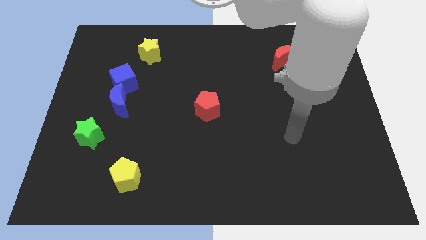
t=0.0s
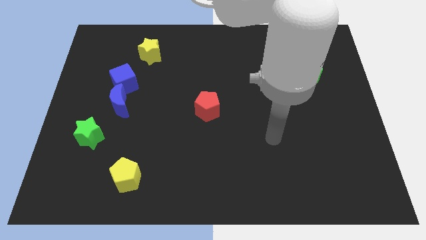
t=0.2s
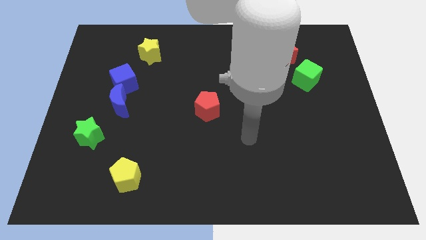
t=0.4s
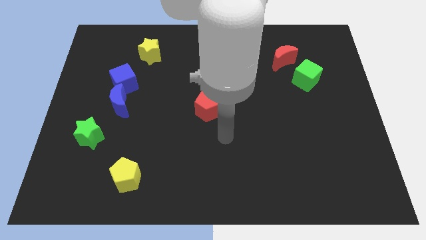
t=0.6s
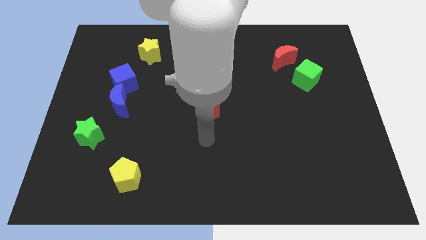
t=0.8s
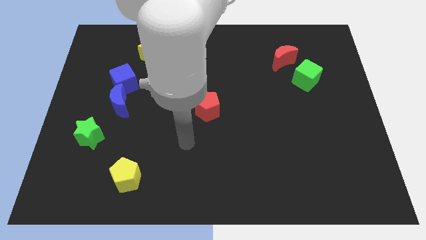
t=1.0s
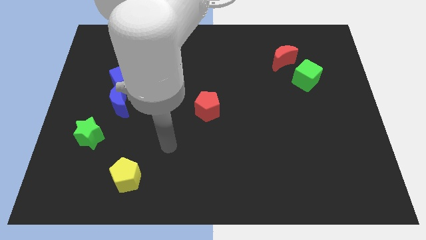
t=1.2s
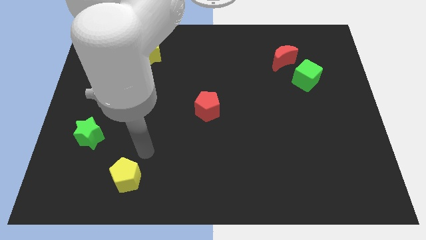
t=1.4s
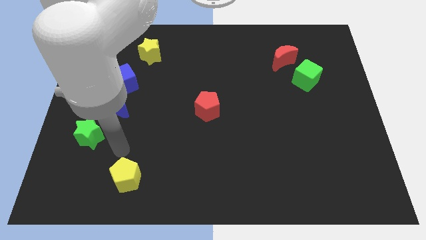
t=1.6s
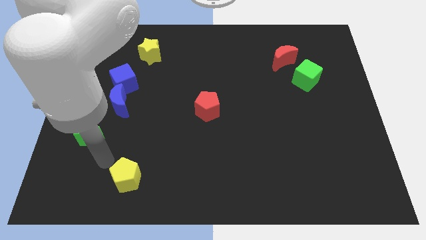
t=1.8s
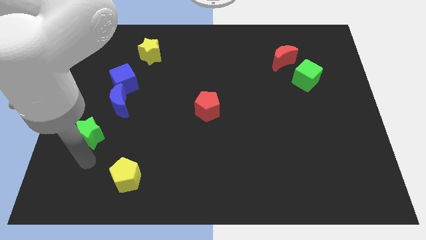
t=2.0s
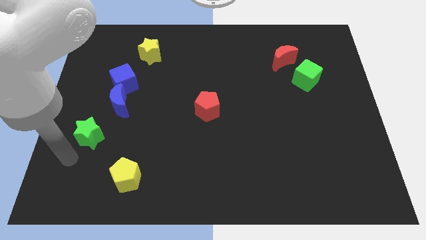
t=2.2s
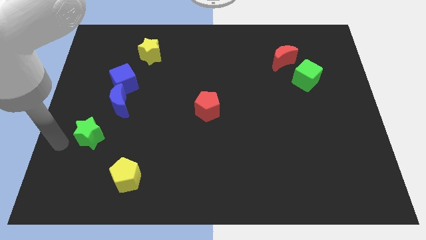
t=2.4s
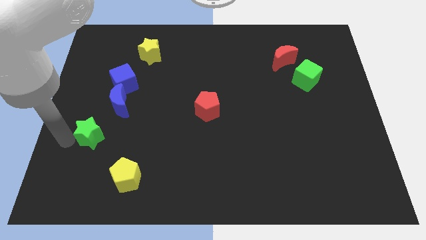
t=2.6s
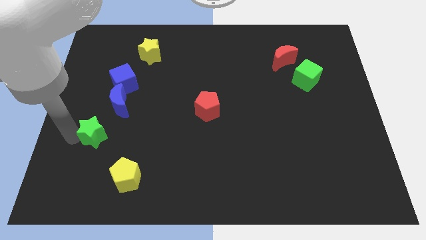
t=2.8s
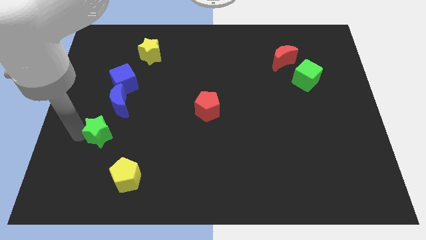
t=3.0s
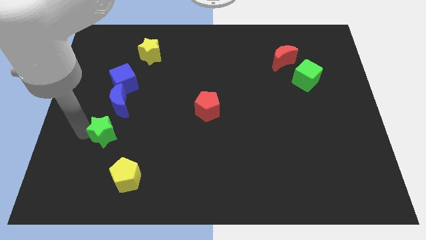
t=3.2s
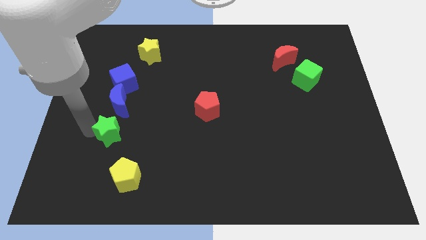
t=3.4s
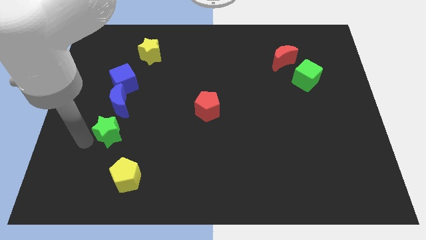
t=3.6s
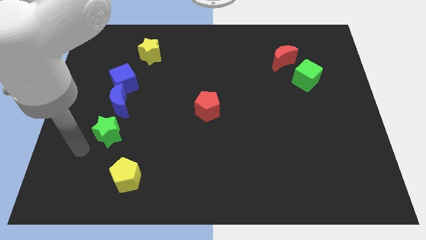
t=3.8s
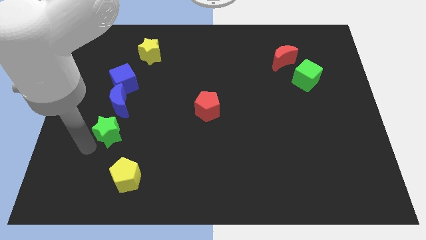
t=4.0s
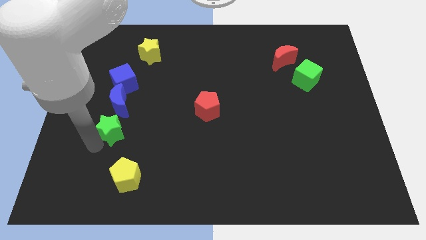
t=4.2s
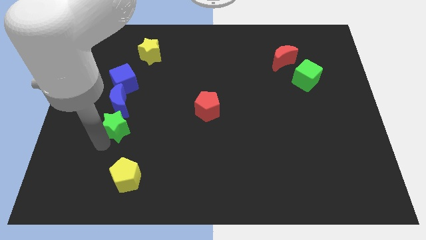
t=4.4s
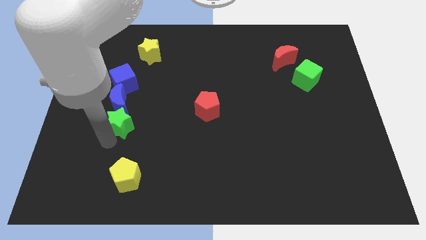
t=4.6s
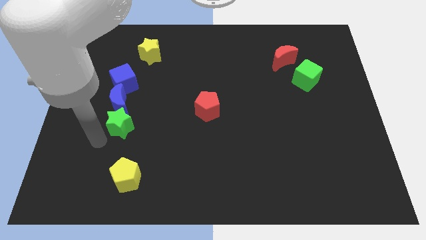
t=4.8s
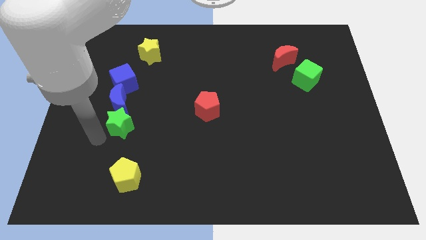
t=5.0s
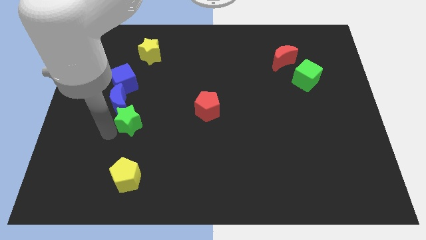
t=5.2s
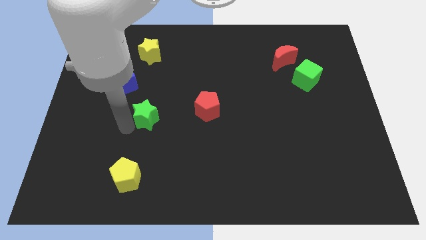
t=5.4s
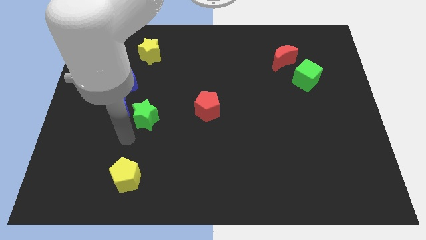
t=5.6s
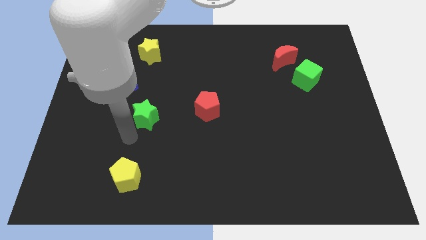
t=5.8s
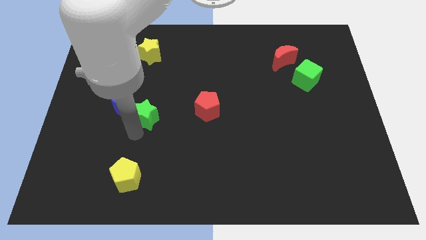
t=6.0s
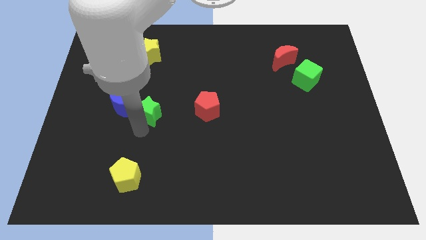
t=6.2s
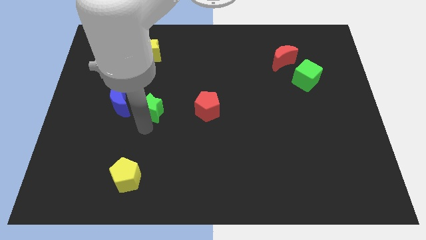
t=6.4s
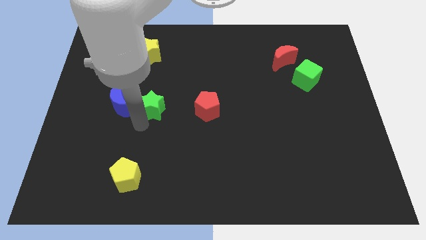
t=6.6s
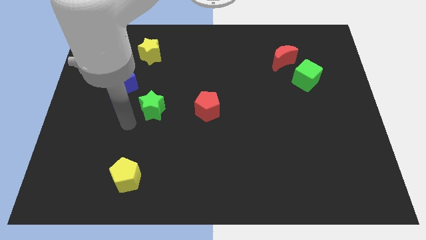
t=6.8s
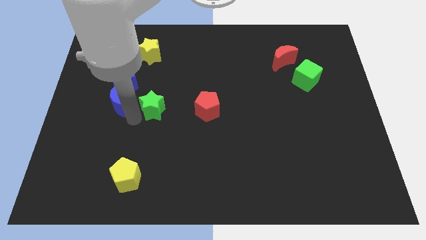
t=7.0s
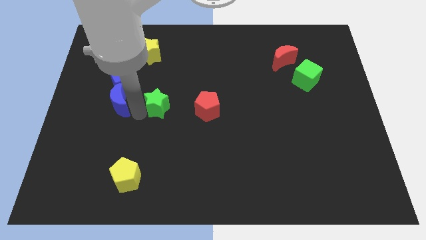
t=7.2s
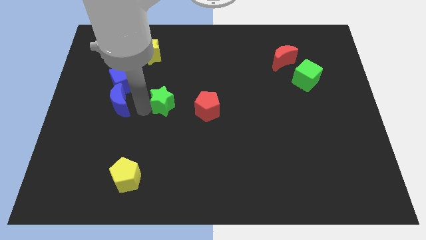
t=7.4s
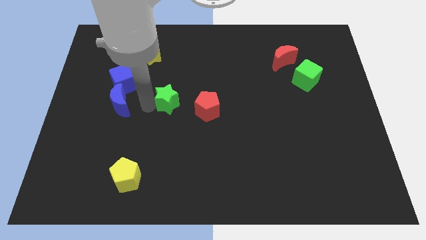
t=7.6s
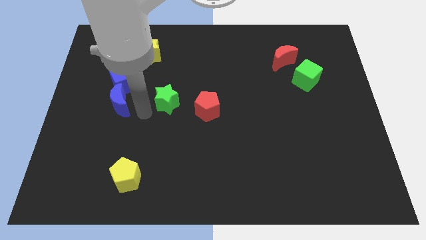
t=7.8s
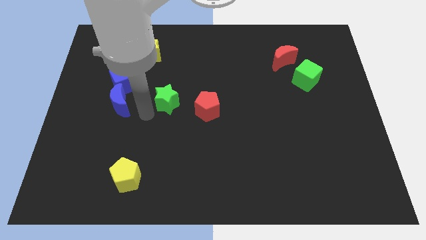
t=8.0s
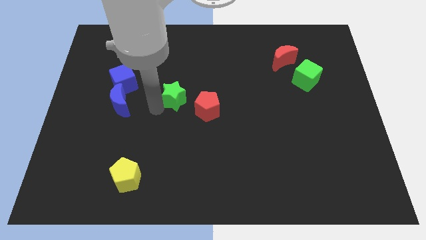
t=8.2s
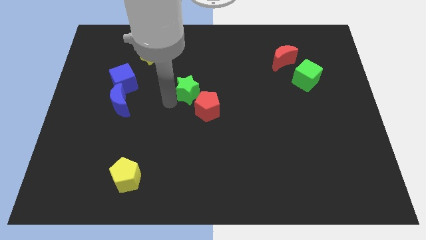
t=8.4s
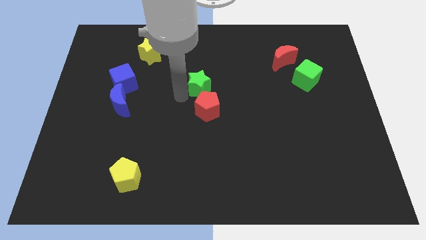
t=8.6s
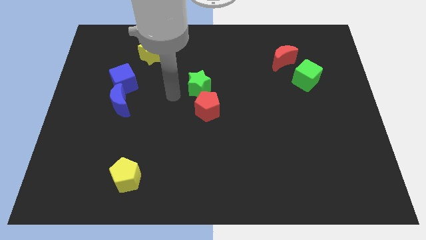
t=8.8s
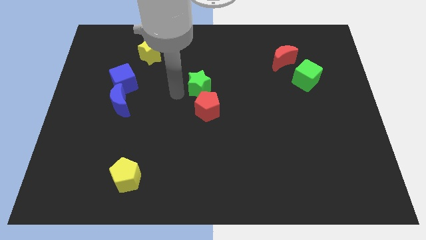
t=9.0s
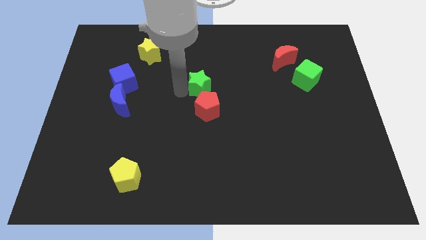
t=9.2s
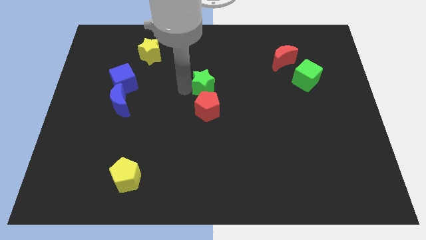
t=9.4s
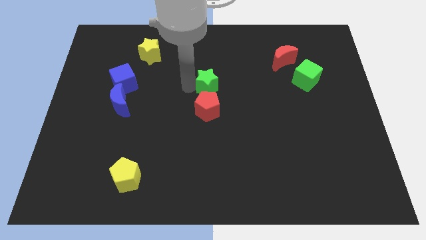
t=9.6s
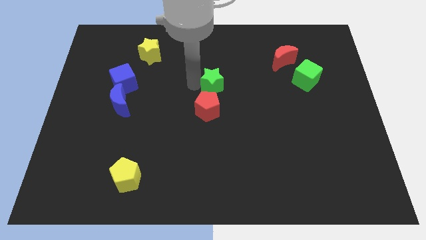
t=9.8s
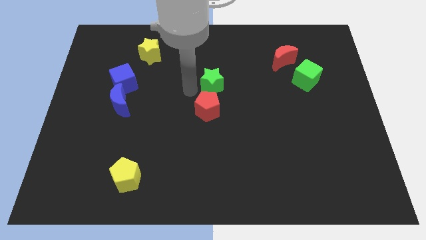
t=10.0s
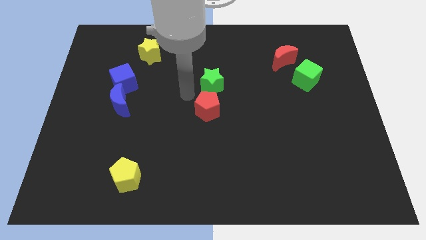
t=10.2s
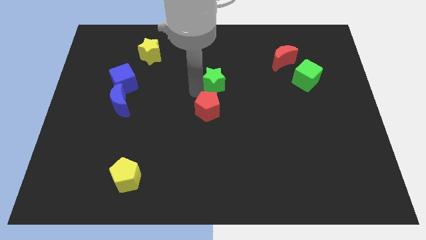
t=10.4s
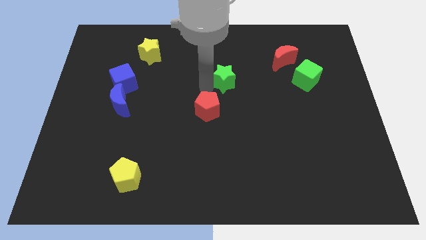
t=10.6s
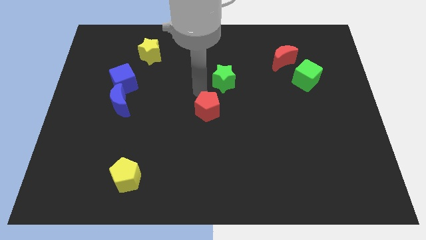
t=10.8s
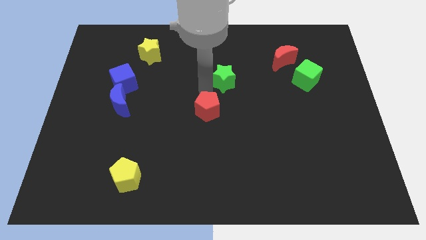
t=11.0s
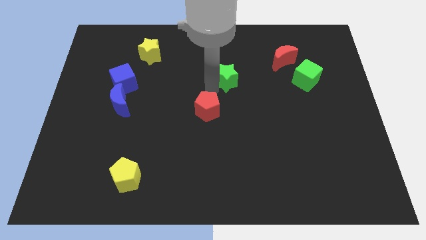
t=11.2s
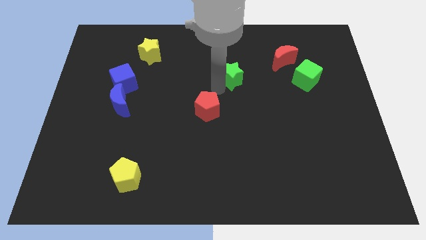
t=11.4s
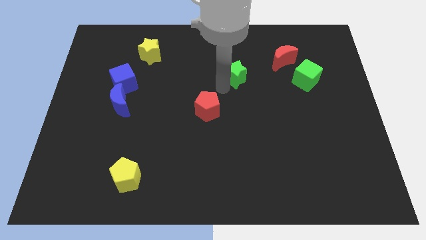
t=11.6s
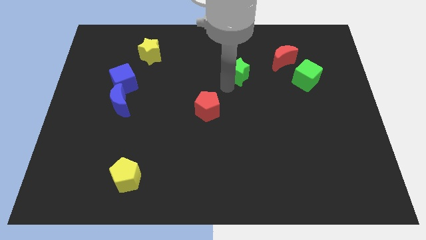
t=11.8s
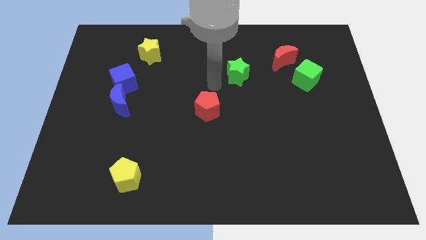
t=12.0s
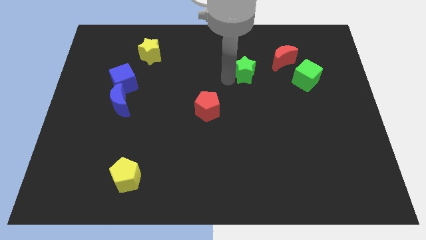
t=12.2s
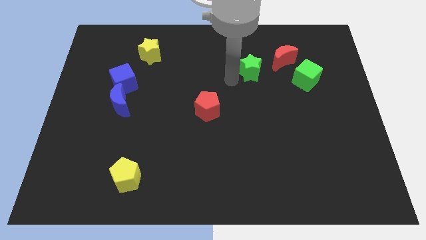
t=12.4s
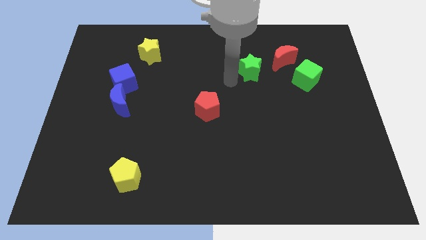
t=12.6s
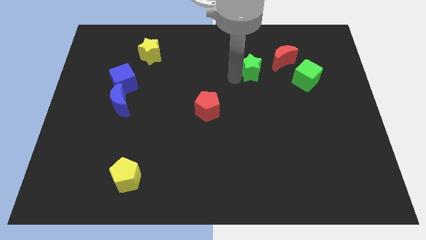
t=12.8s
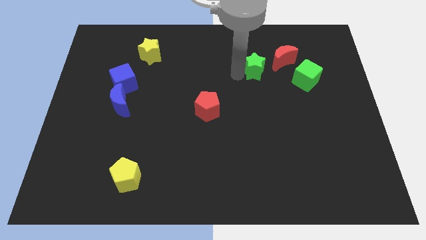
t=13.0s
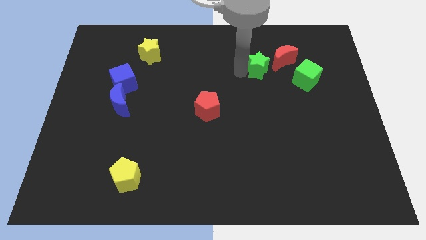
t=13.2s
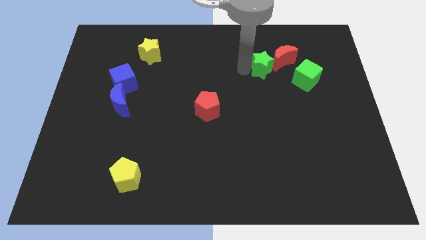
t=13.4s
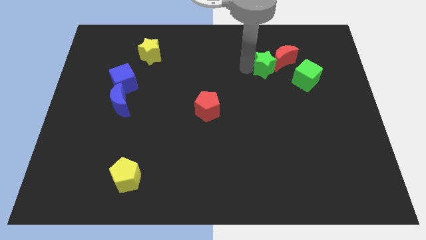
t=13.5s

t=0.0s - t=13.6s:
slide the green star next to the red moon

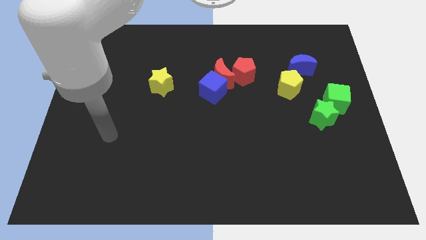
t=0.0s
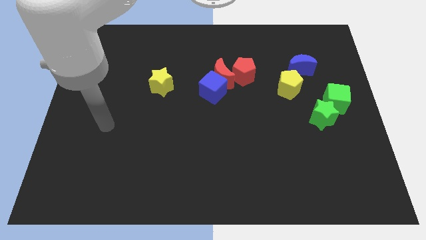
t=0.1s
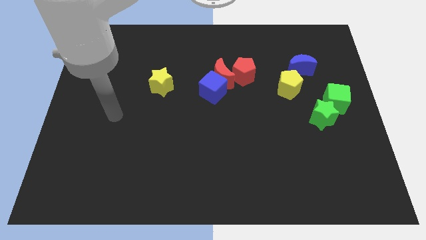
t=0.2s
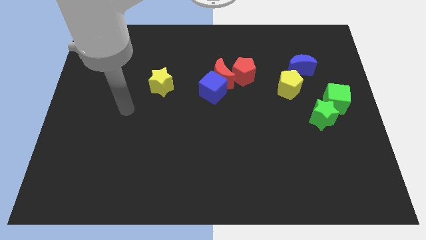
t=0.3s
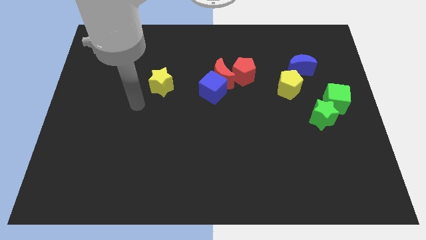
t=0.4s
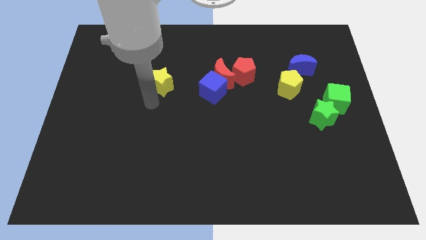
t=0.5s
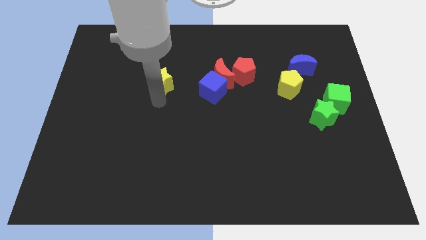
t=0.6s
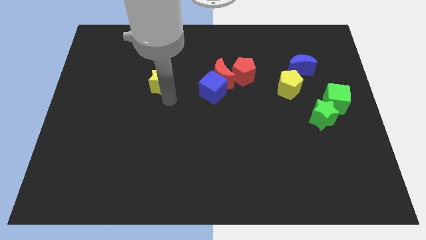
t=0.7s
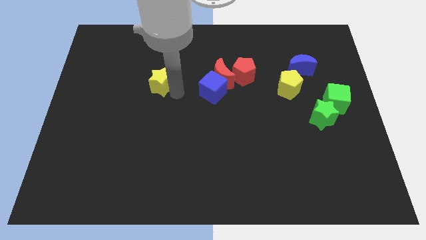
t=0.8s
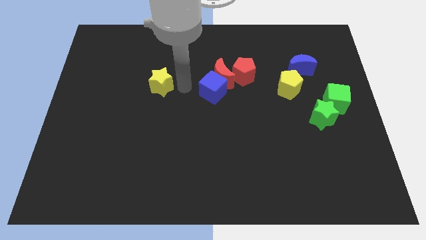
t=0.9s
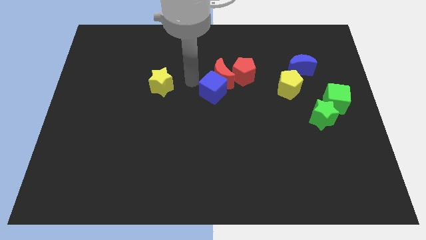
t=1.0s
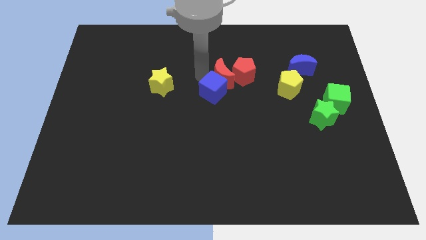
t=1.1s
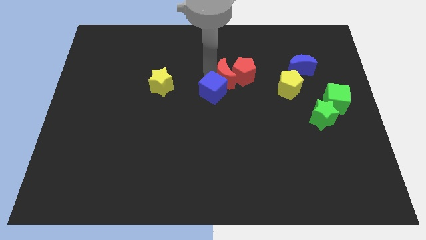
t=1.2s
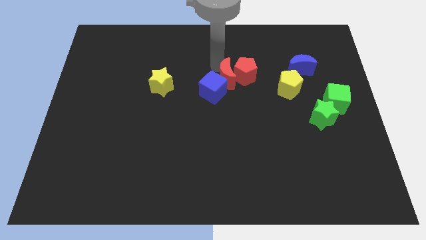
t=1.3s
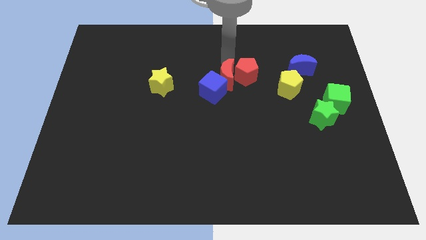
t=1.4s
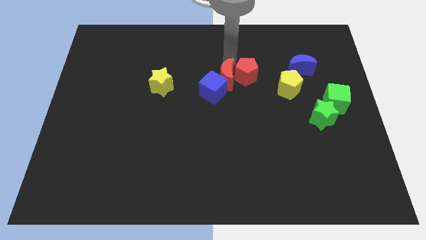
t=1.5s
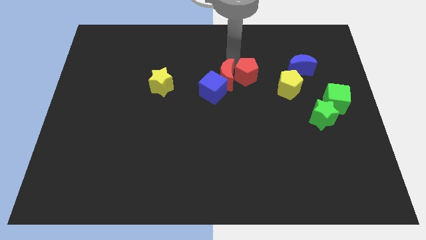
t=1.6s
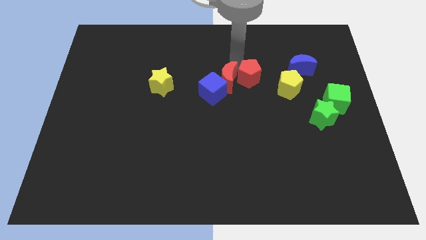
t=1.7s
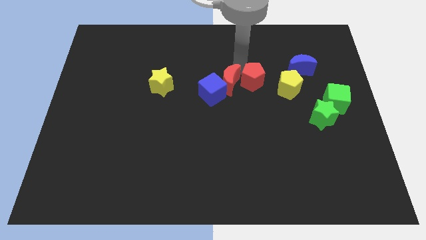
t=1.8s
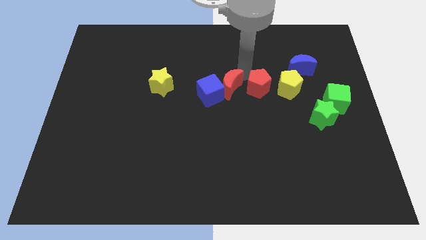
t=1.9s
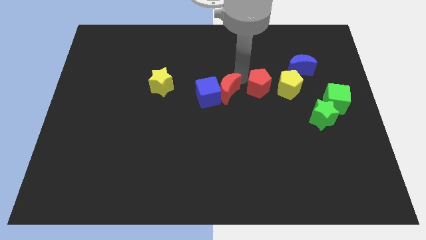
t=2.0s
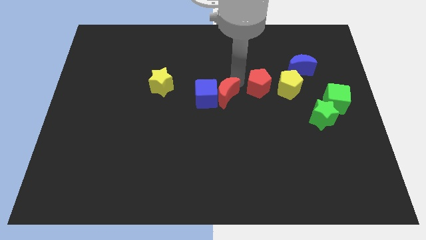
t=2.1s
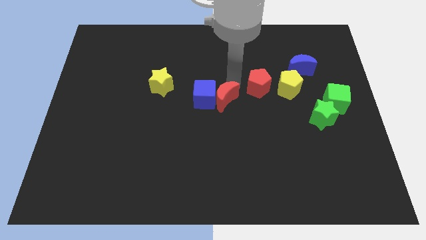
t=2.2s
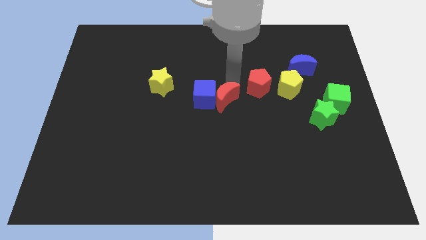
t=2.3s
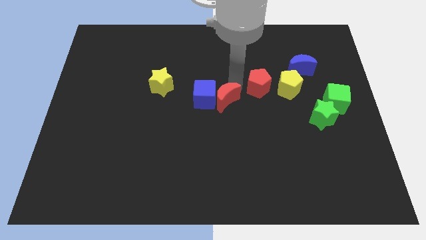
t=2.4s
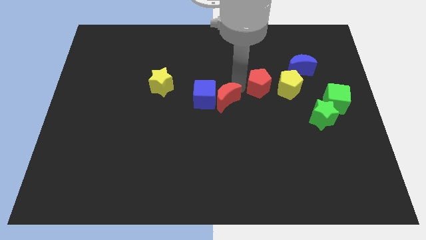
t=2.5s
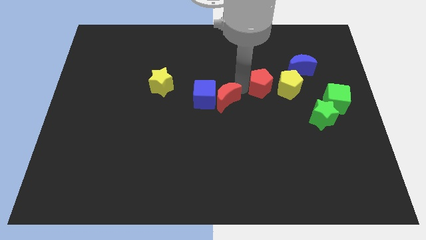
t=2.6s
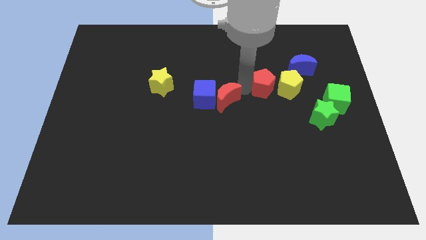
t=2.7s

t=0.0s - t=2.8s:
put the red pentagon to the yellow pentagon
